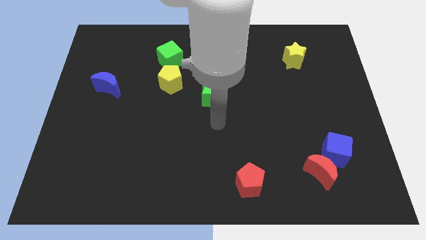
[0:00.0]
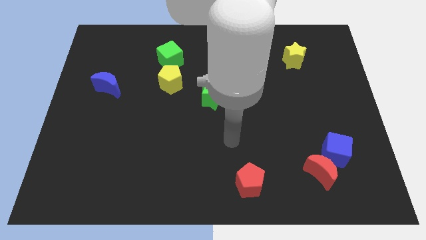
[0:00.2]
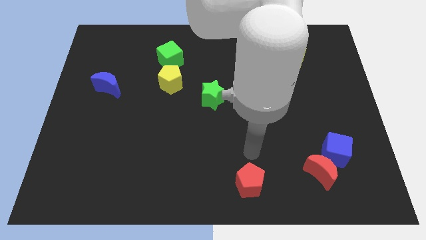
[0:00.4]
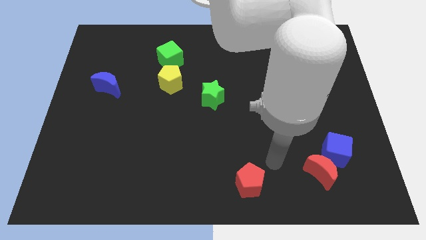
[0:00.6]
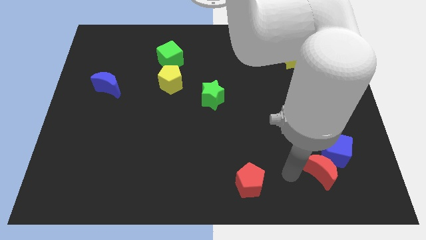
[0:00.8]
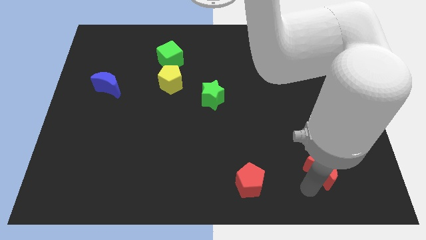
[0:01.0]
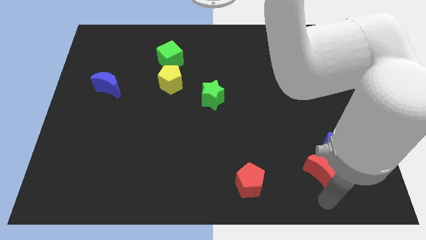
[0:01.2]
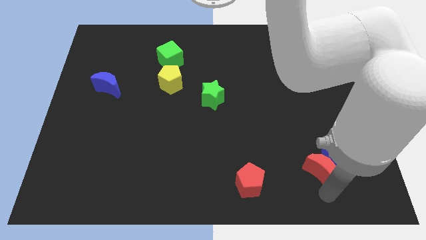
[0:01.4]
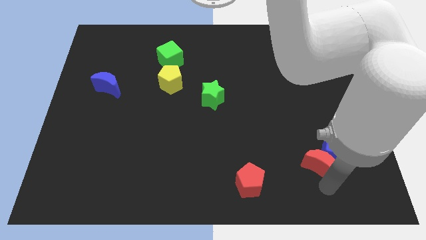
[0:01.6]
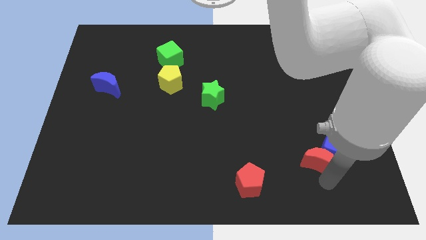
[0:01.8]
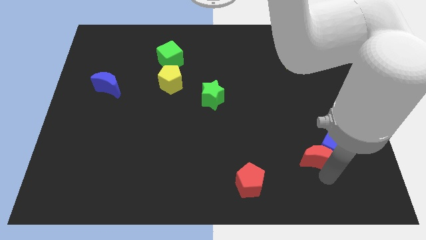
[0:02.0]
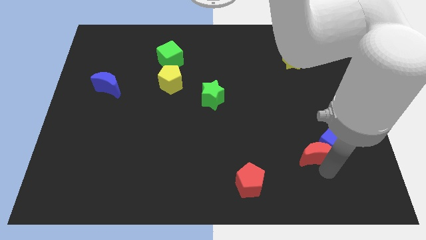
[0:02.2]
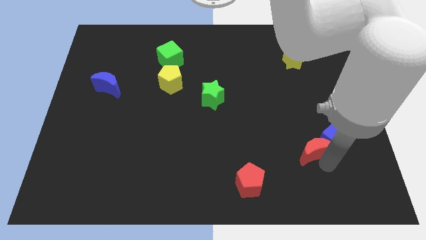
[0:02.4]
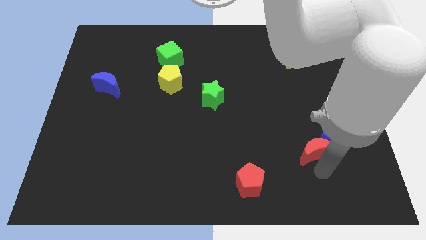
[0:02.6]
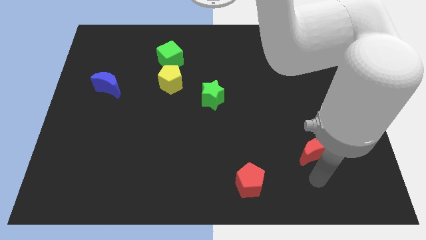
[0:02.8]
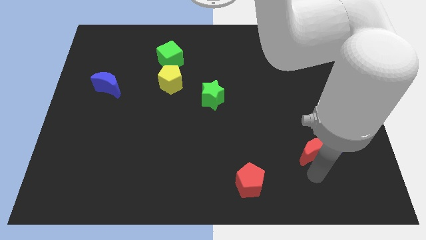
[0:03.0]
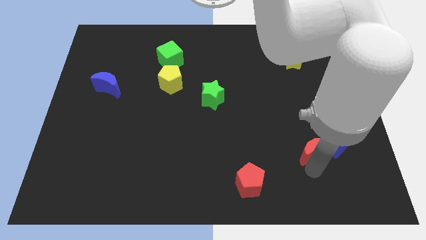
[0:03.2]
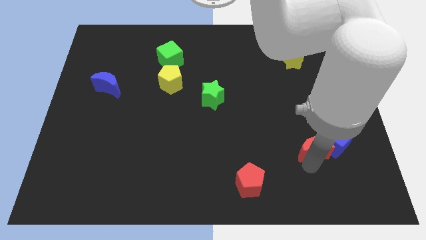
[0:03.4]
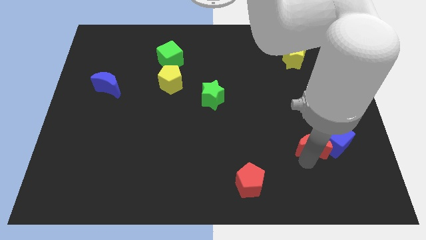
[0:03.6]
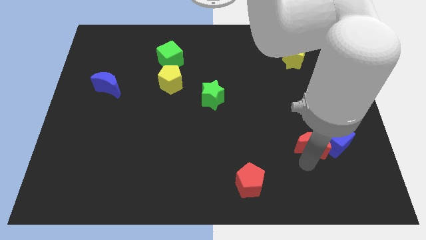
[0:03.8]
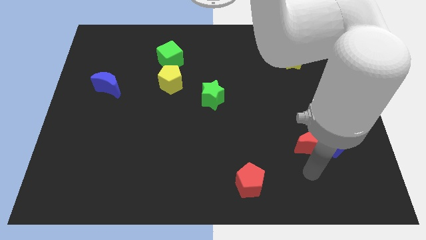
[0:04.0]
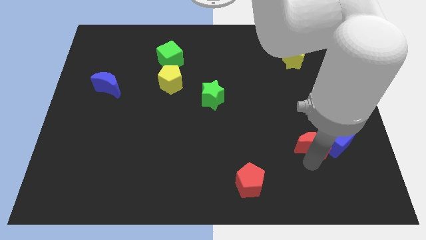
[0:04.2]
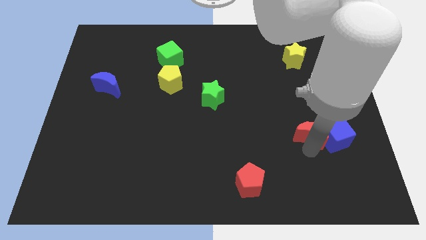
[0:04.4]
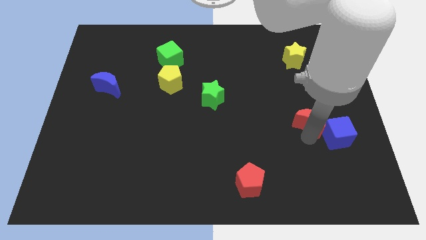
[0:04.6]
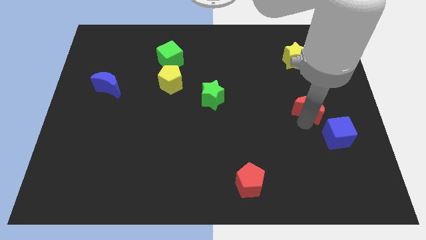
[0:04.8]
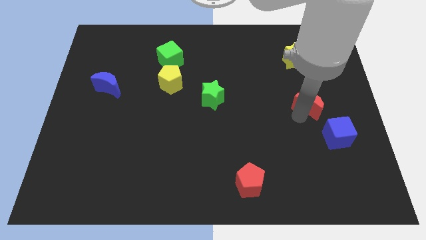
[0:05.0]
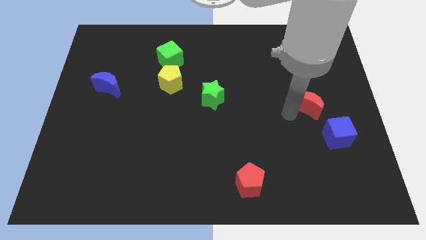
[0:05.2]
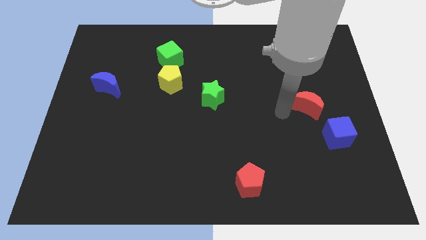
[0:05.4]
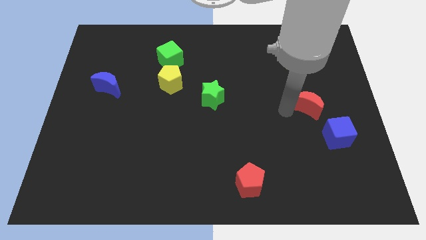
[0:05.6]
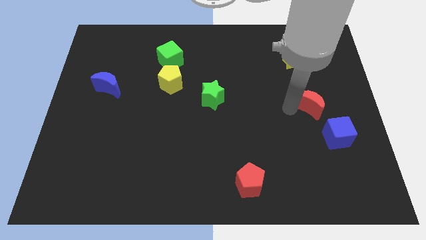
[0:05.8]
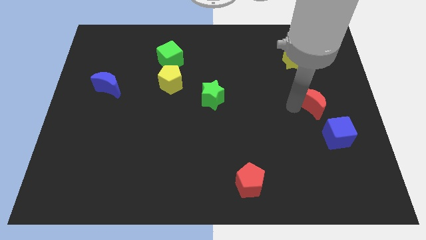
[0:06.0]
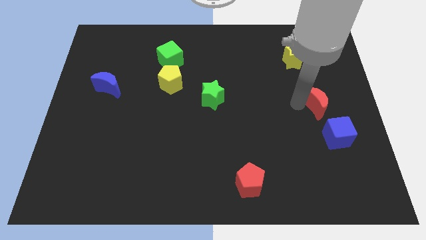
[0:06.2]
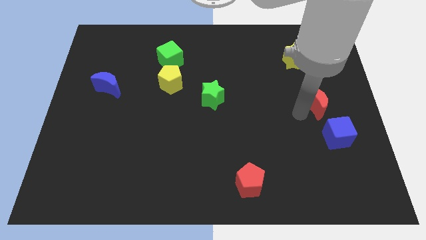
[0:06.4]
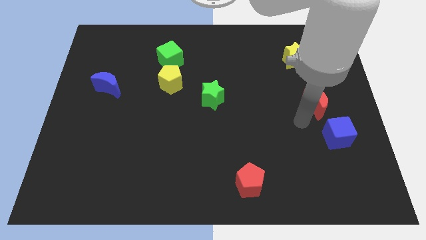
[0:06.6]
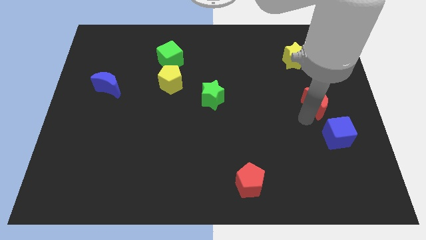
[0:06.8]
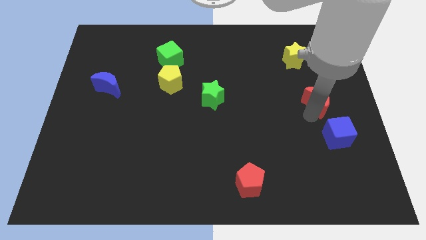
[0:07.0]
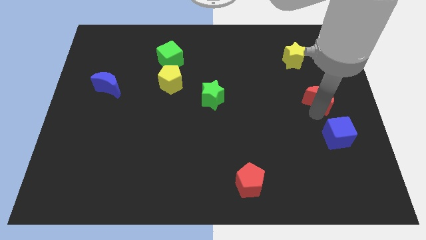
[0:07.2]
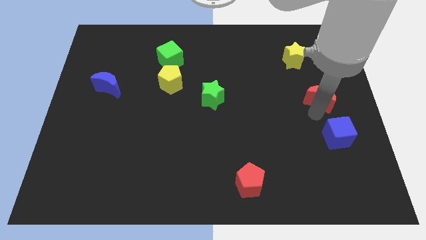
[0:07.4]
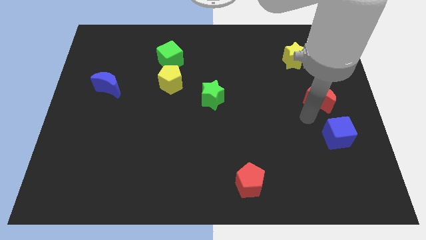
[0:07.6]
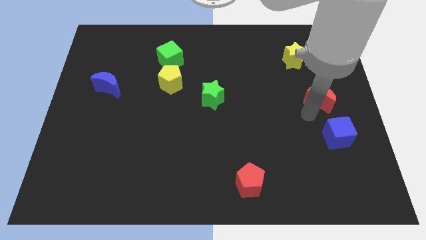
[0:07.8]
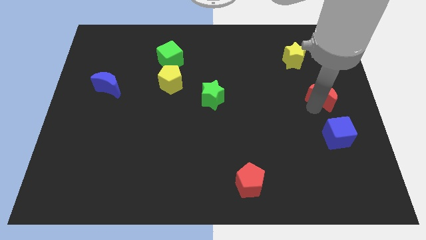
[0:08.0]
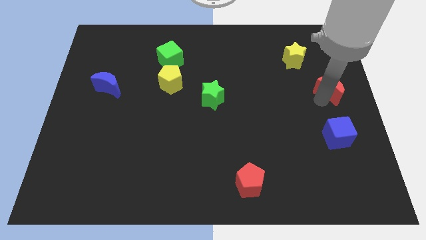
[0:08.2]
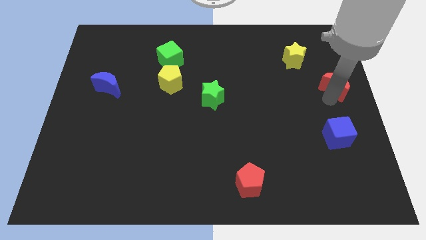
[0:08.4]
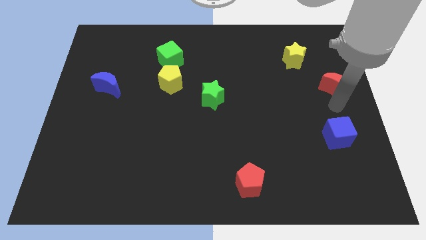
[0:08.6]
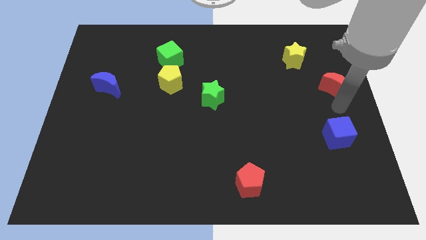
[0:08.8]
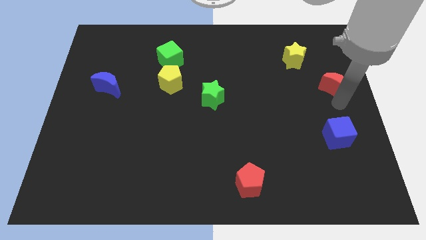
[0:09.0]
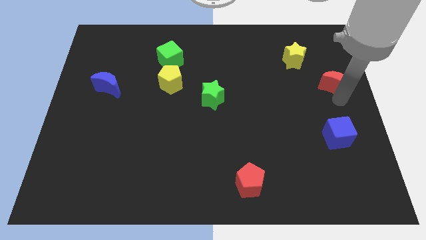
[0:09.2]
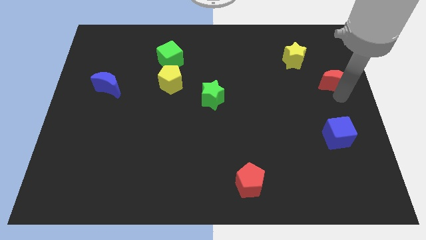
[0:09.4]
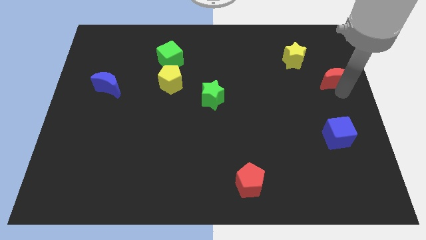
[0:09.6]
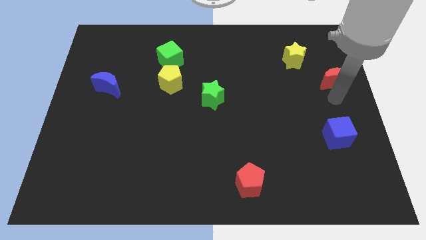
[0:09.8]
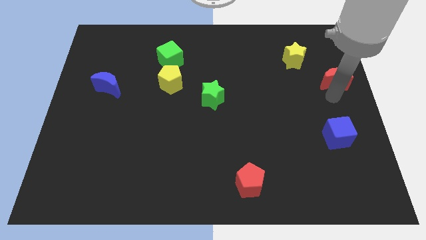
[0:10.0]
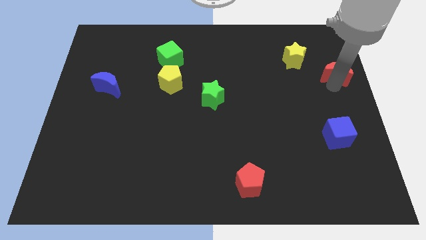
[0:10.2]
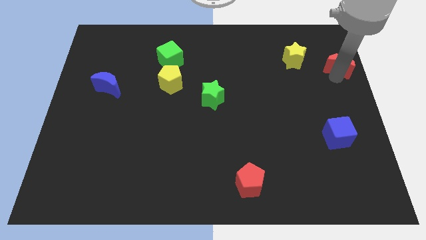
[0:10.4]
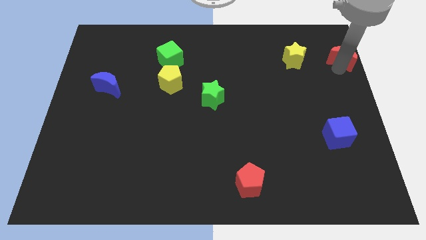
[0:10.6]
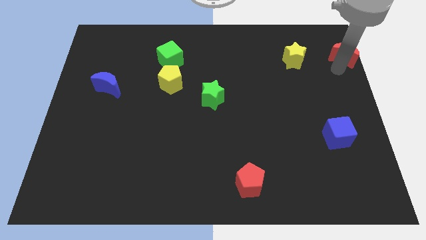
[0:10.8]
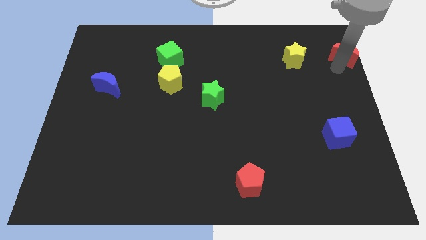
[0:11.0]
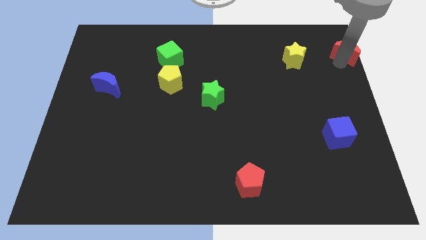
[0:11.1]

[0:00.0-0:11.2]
slide the red moon to the top right
